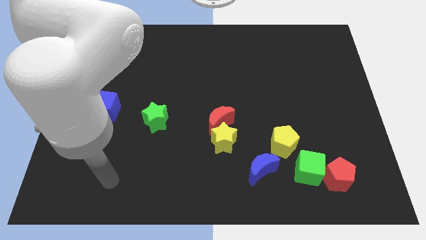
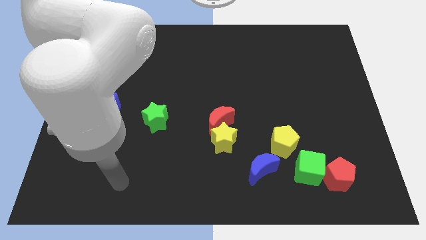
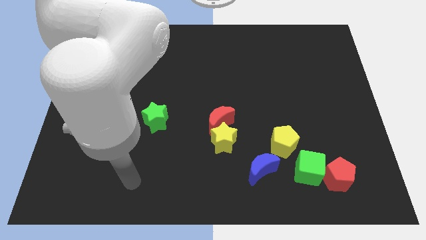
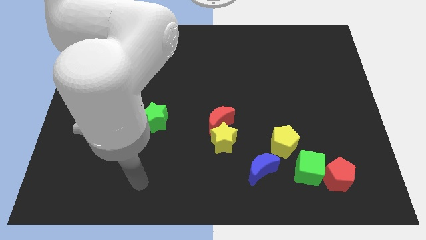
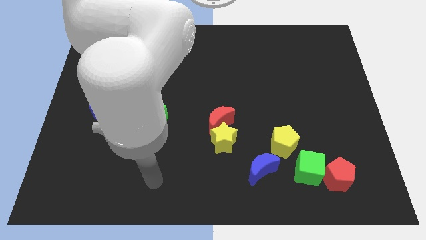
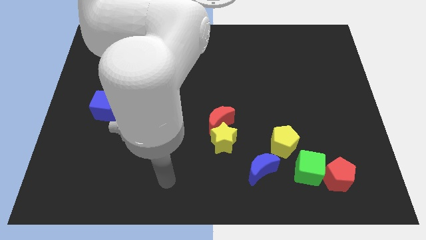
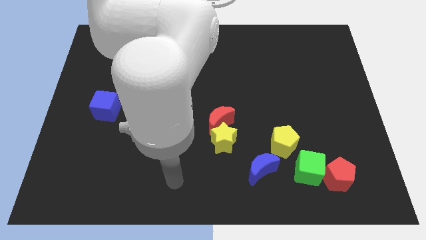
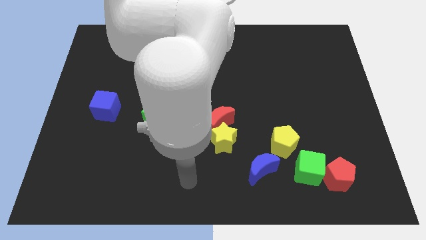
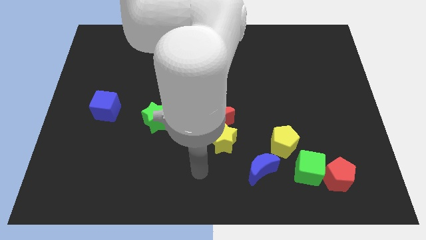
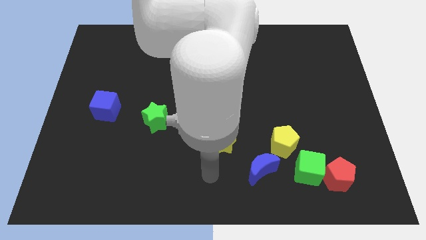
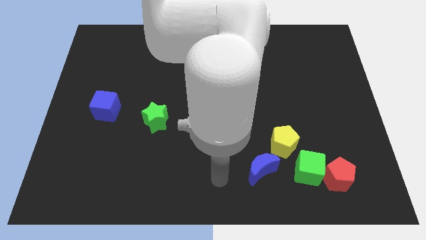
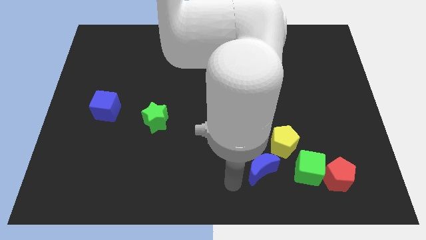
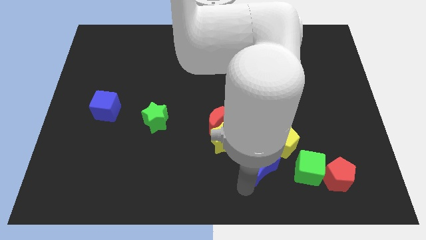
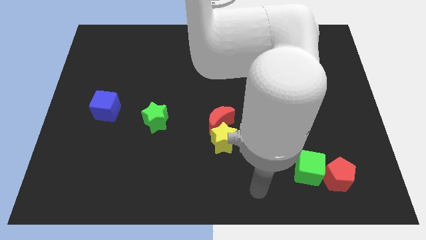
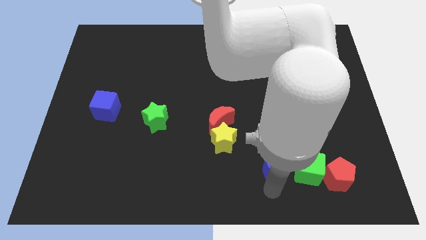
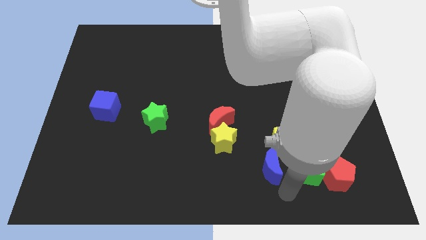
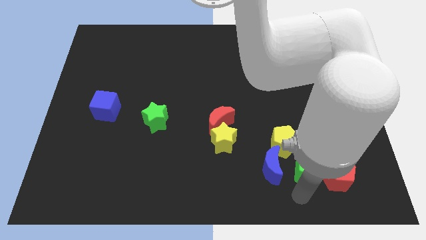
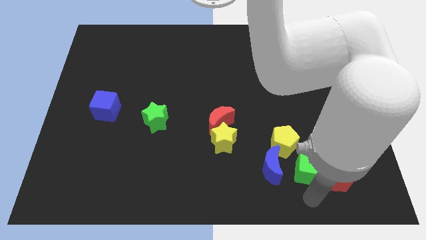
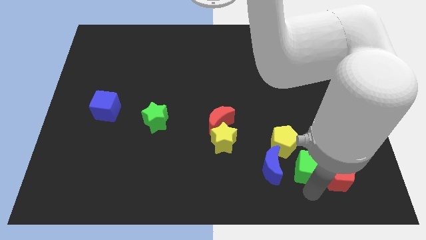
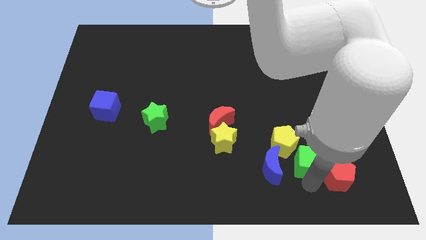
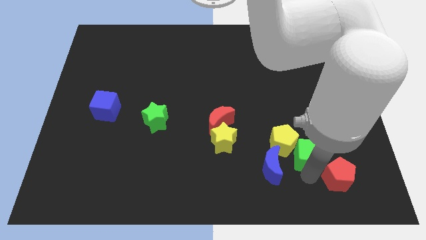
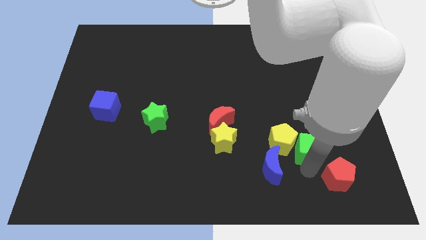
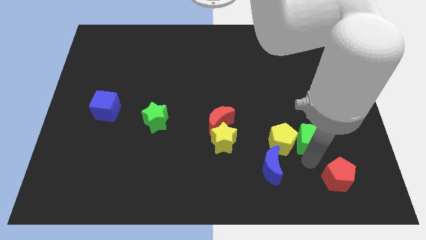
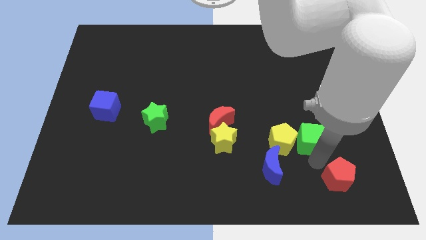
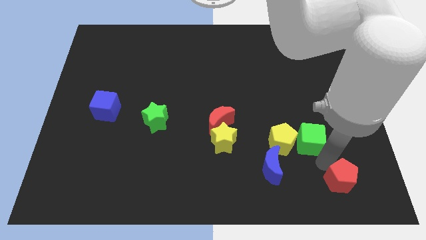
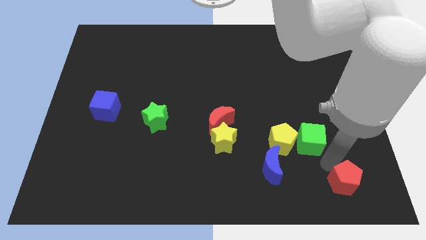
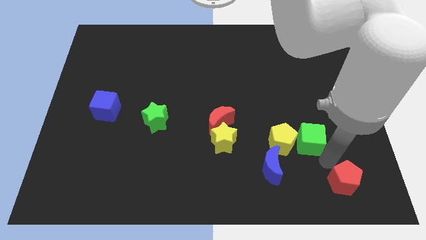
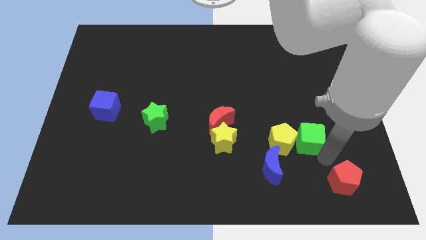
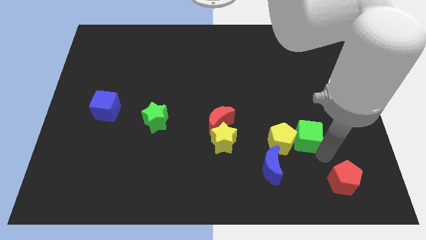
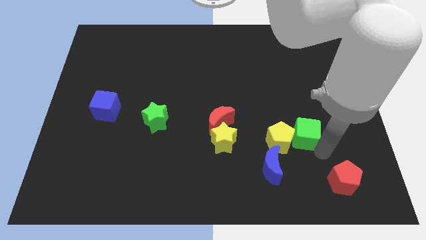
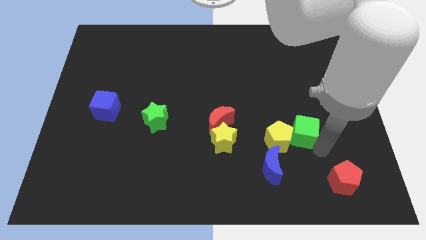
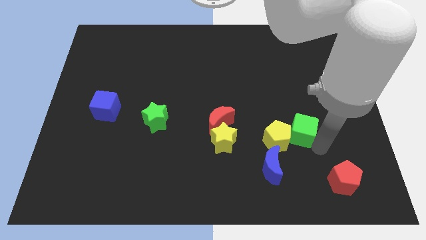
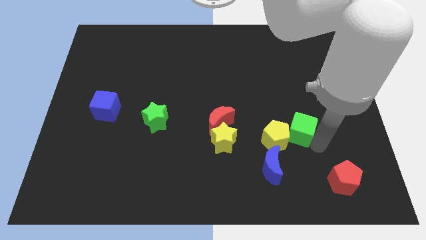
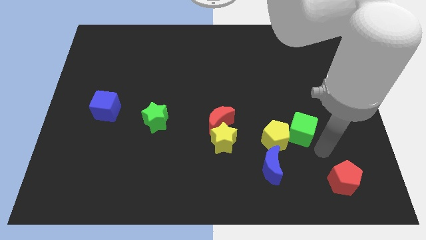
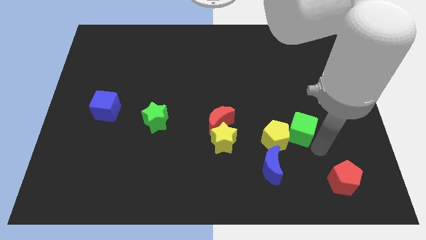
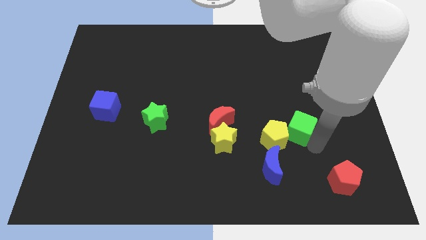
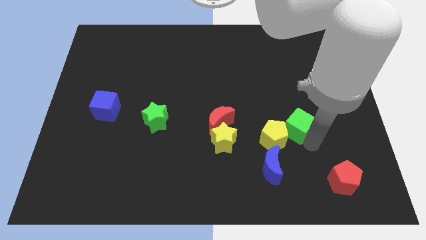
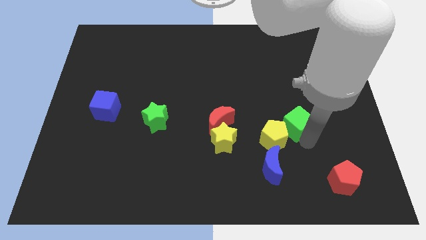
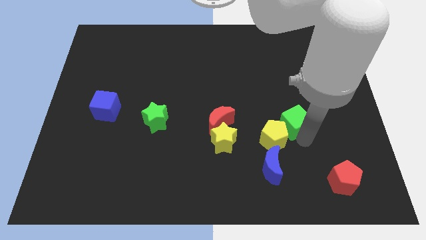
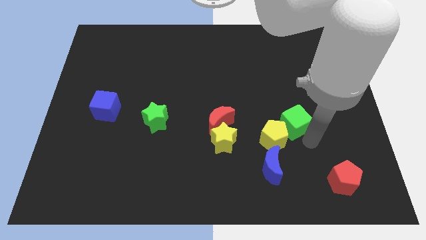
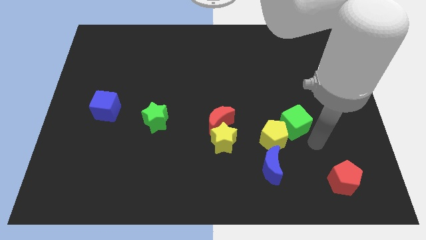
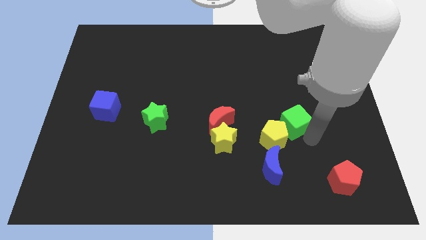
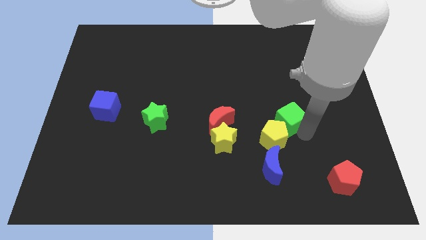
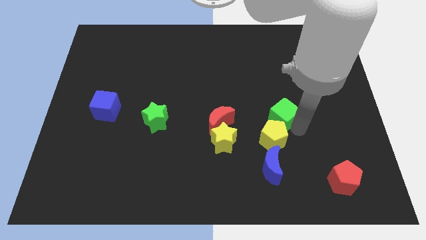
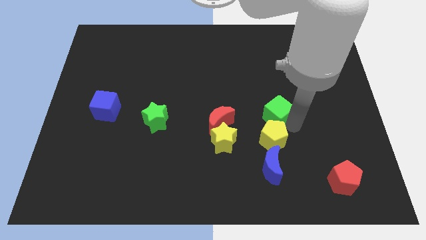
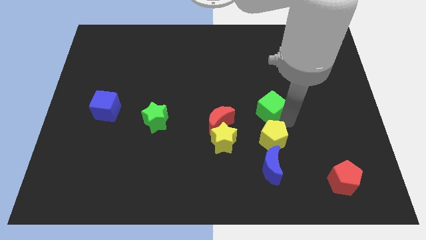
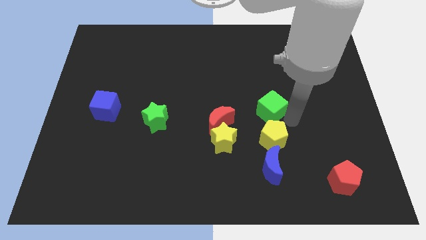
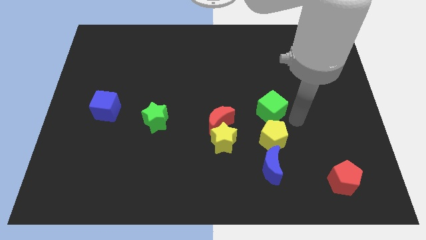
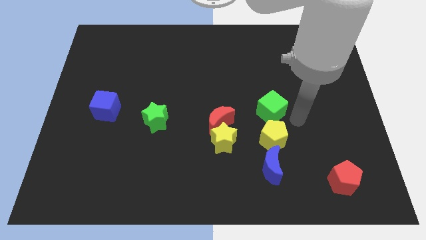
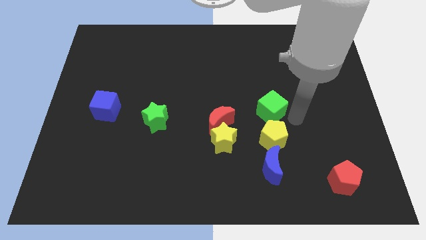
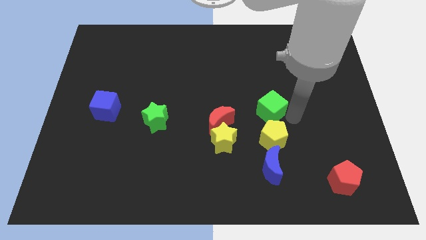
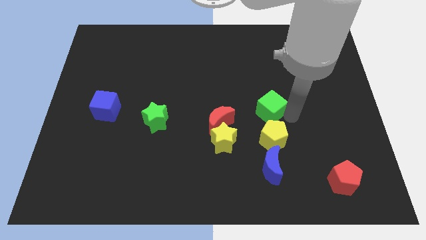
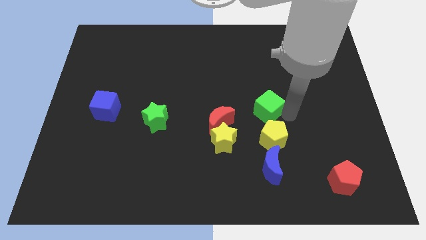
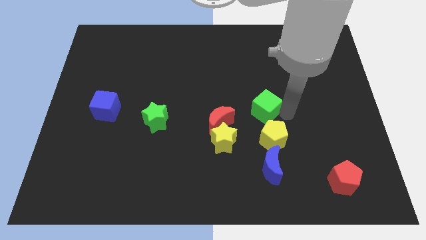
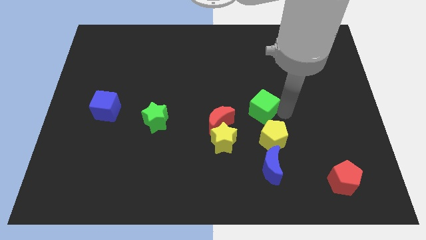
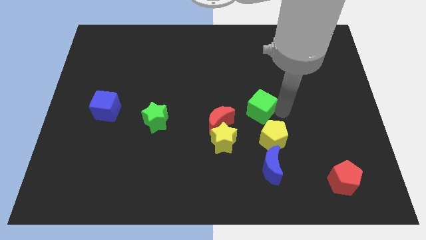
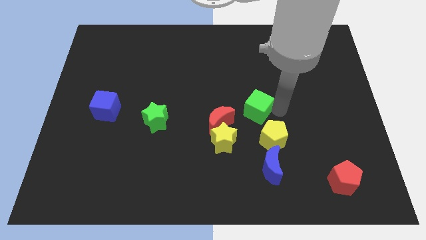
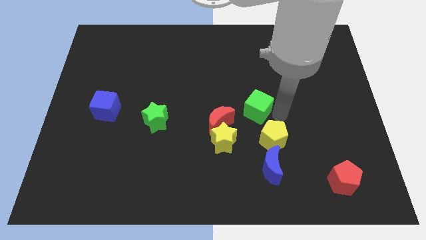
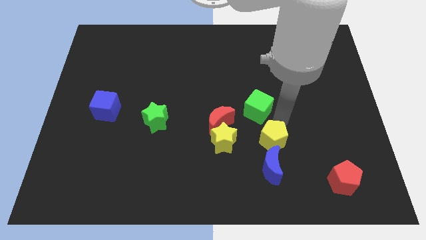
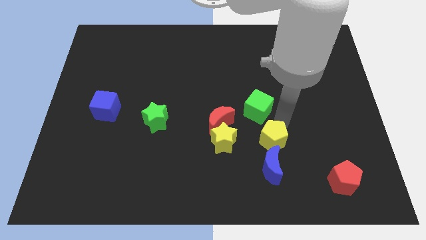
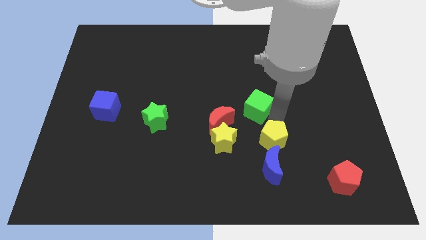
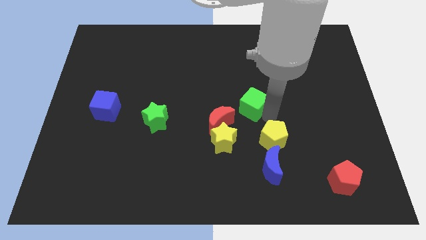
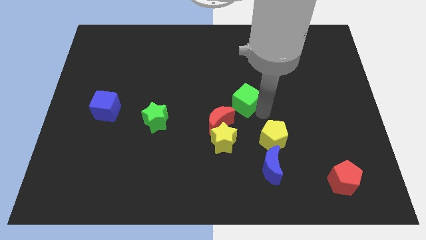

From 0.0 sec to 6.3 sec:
slide the green cube upwards and left

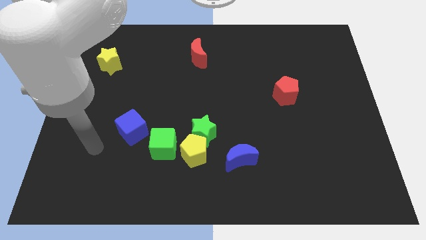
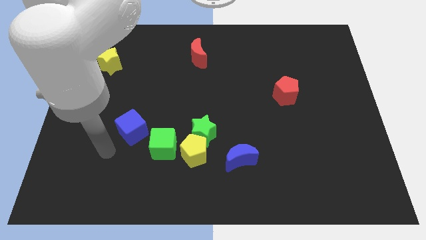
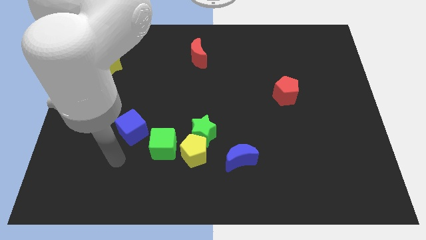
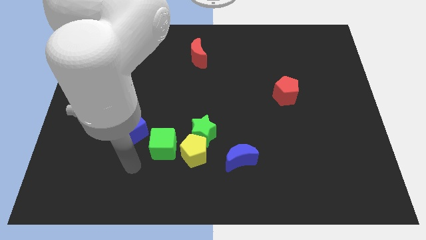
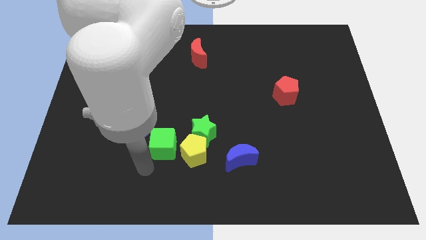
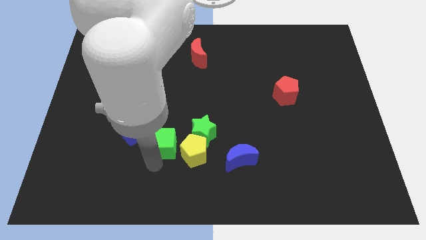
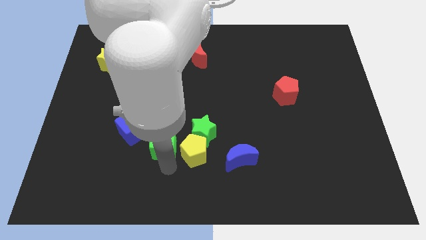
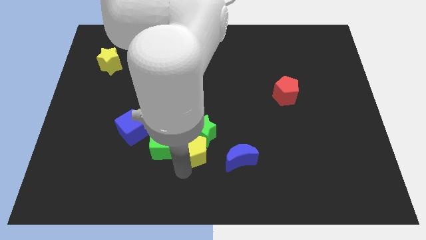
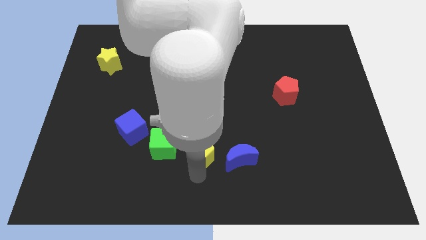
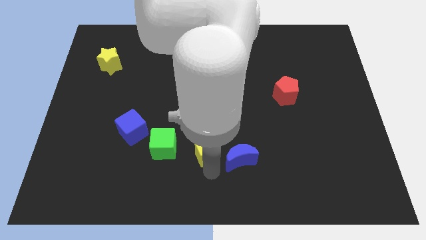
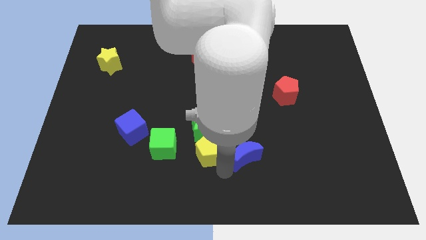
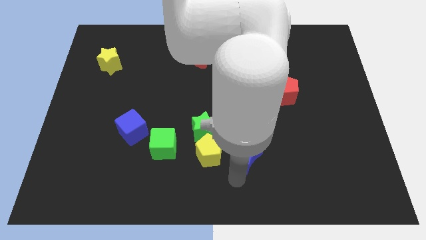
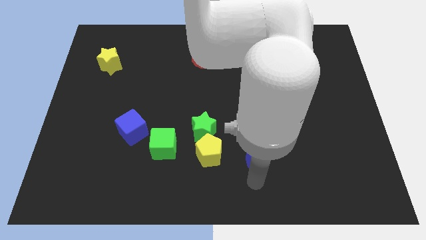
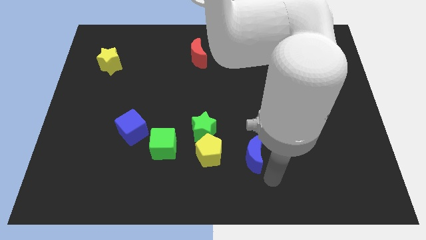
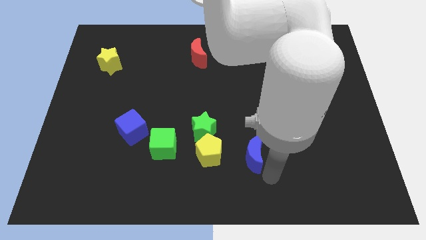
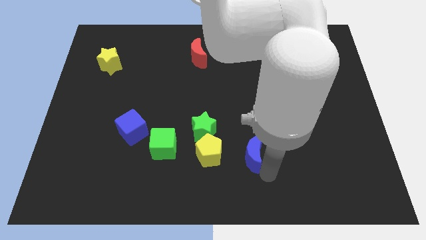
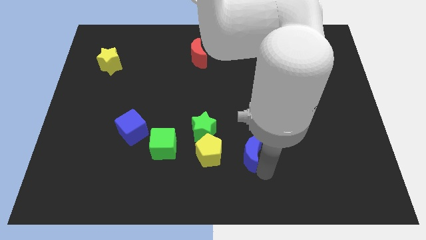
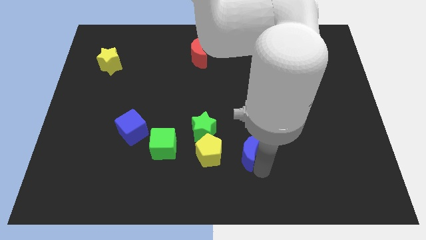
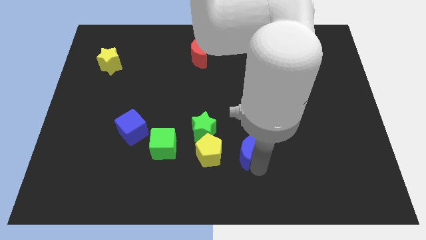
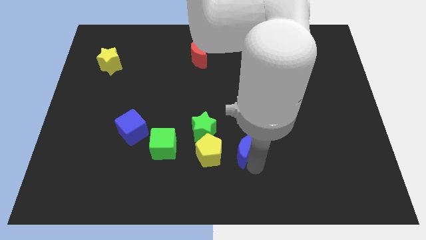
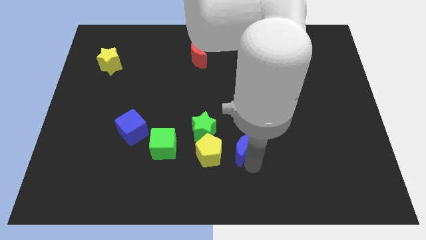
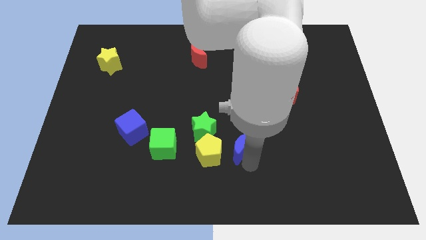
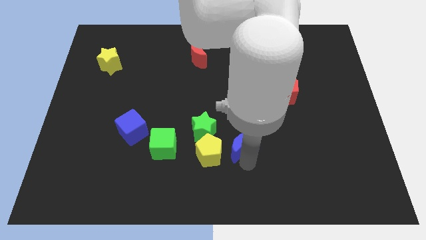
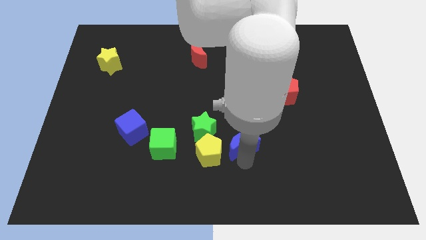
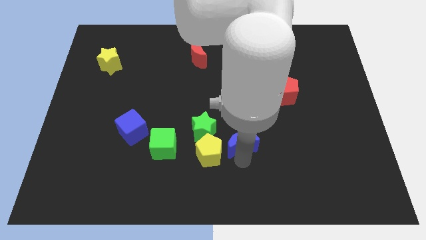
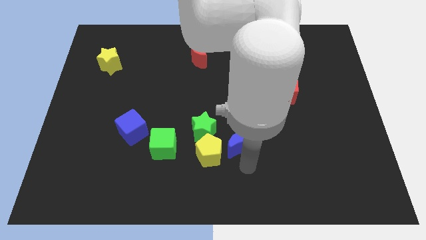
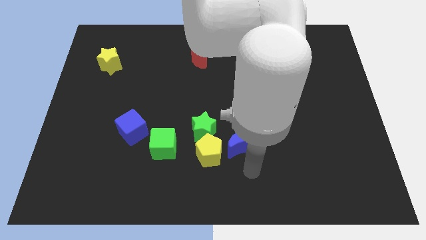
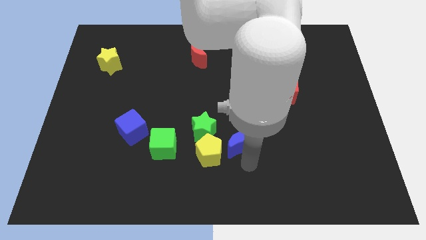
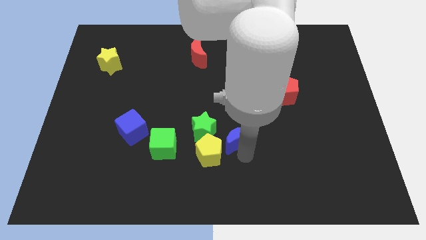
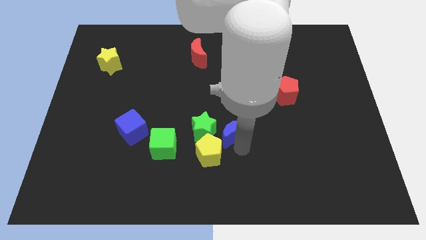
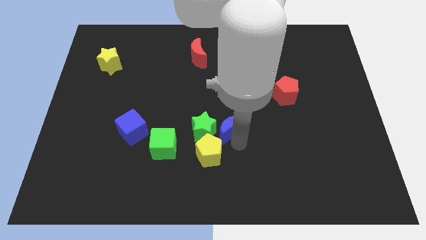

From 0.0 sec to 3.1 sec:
push the blue moon up slightly
